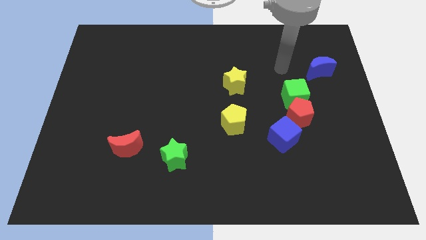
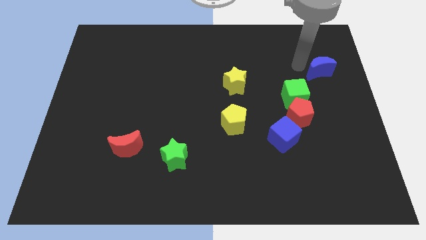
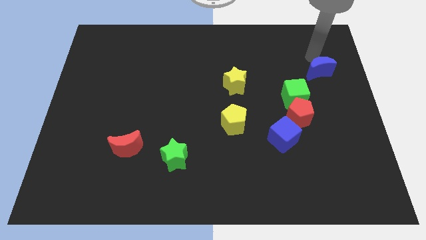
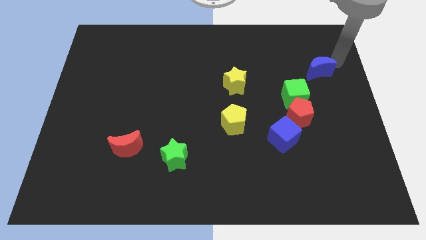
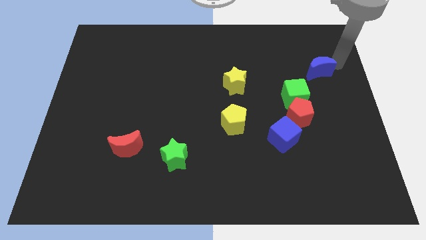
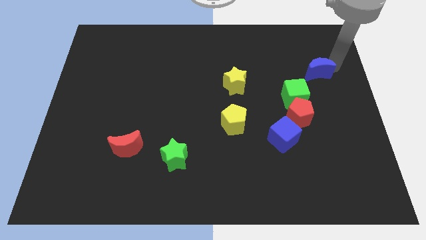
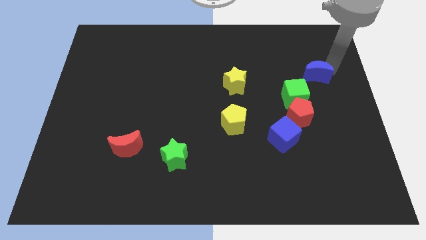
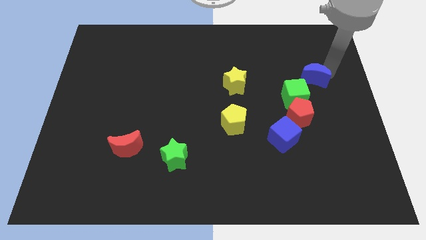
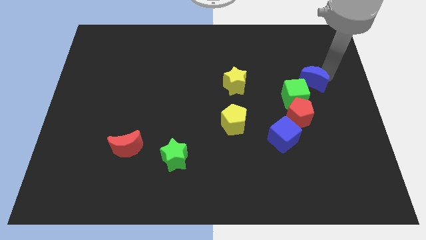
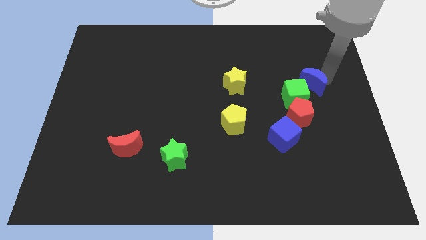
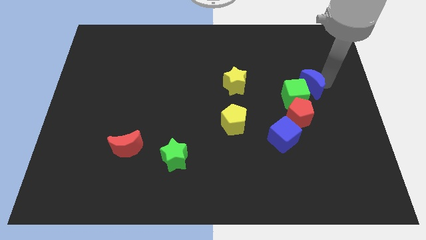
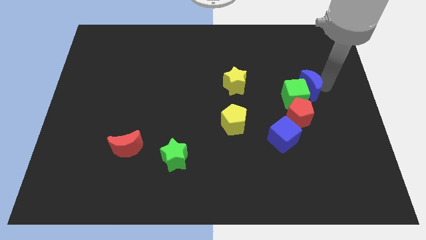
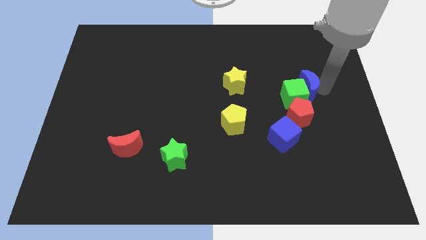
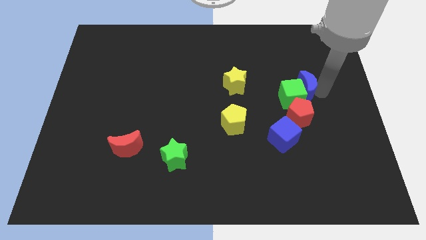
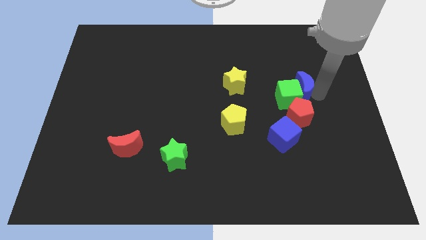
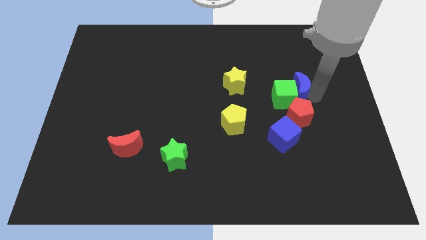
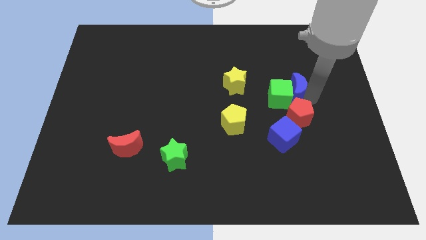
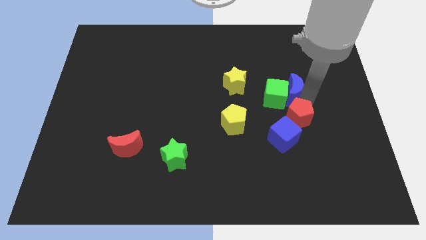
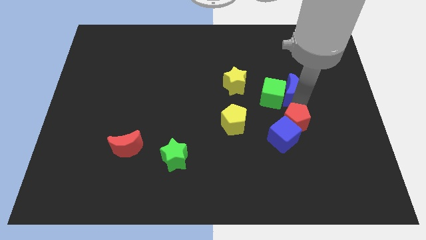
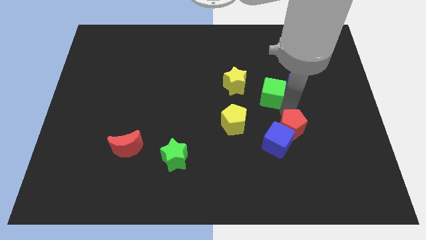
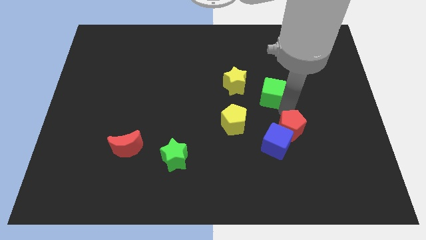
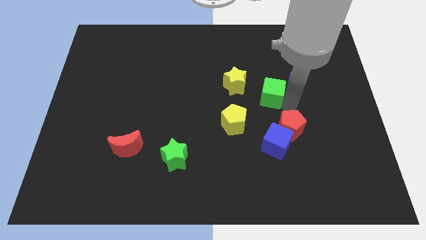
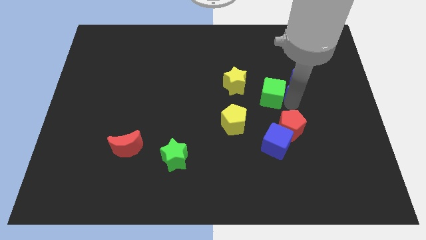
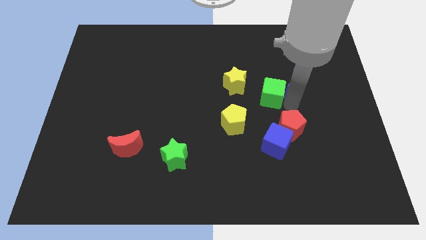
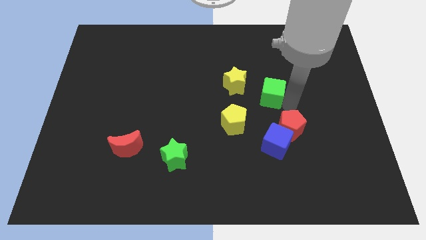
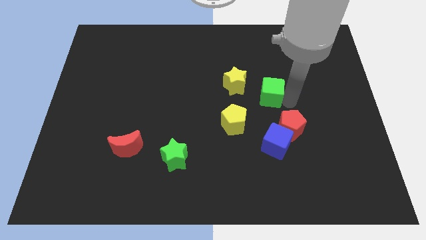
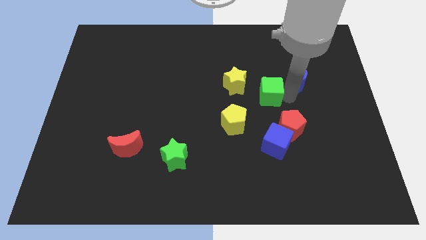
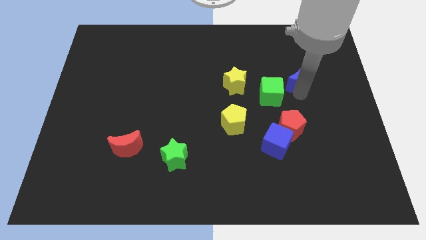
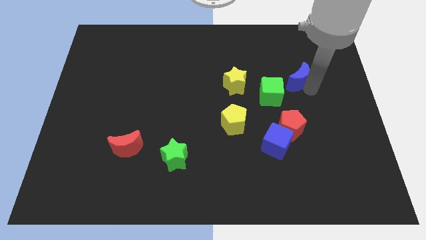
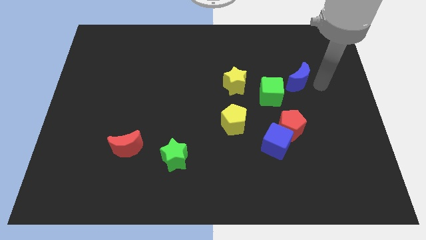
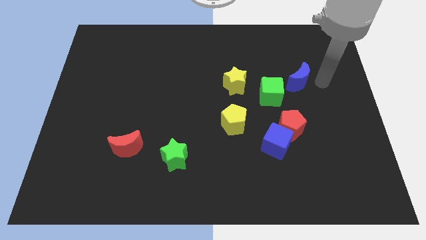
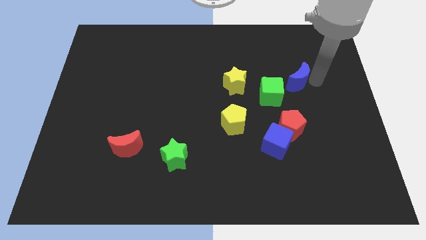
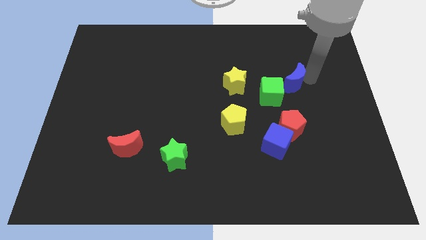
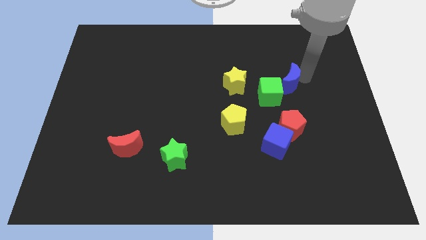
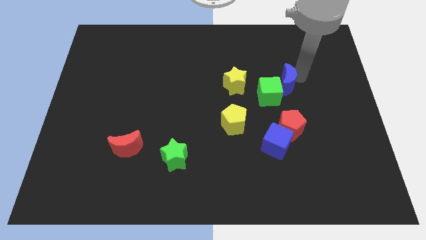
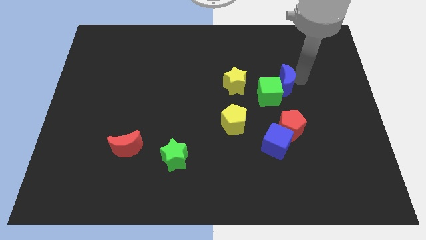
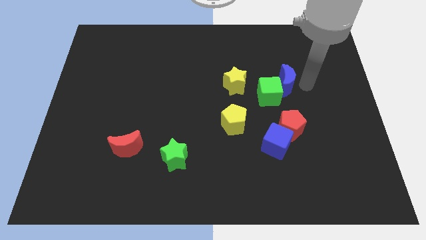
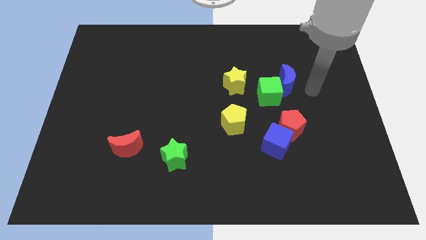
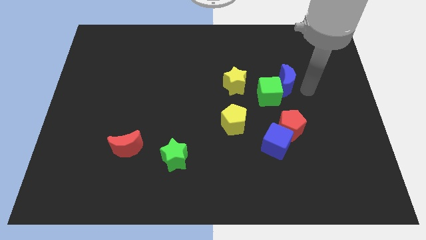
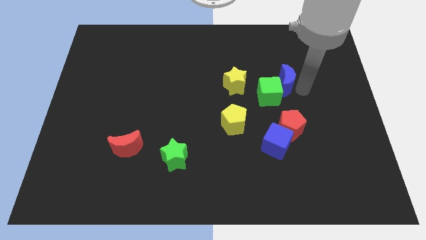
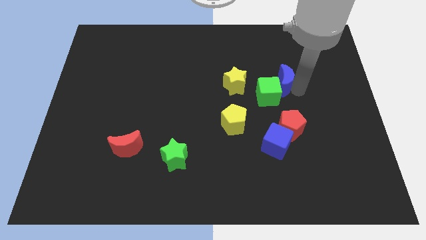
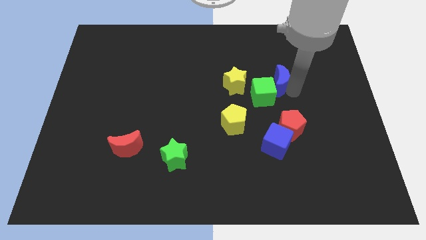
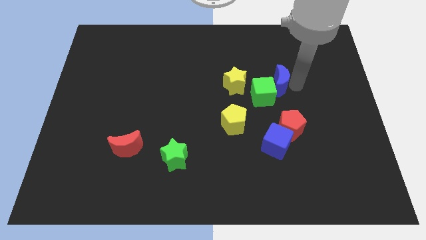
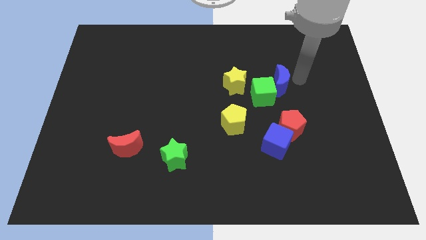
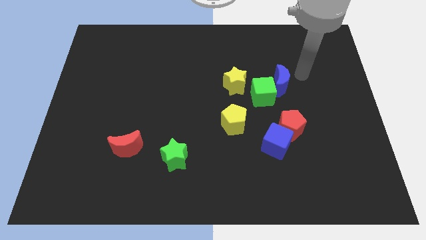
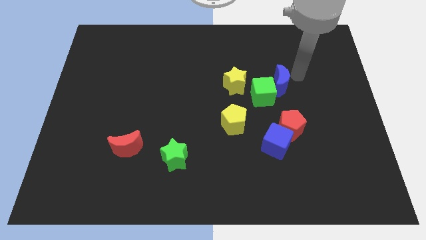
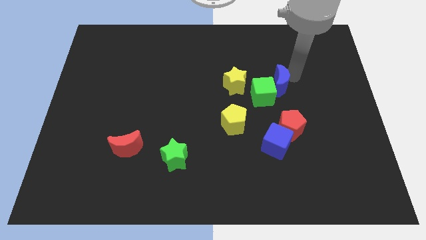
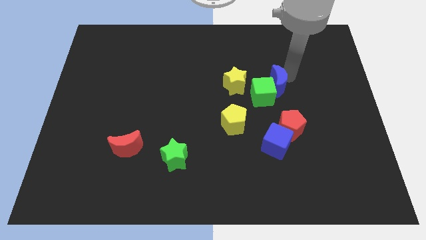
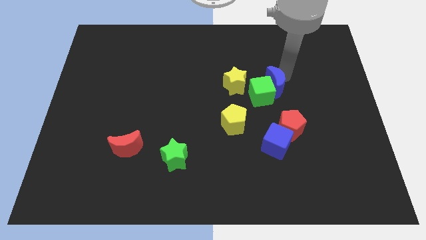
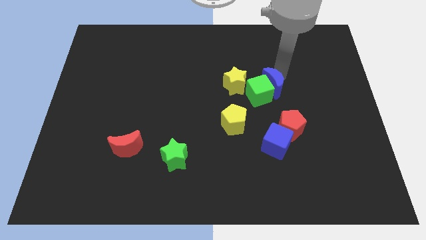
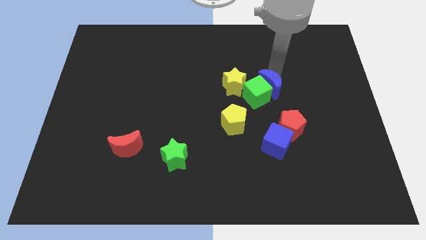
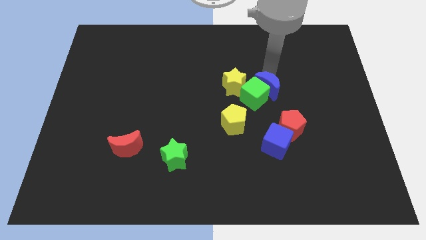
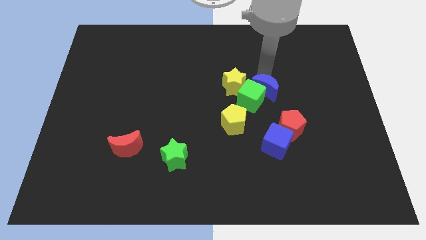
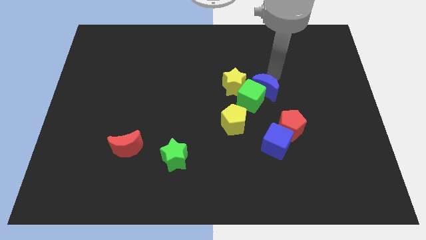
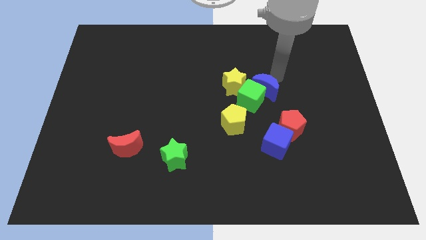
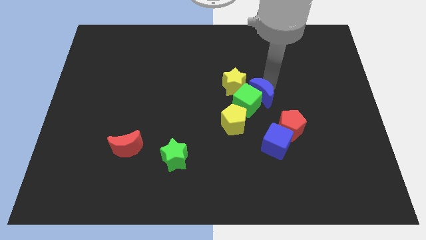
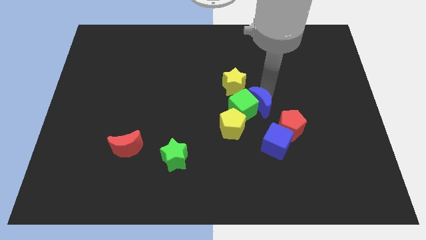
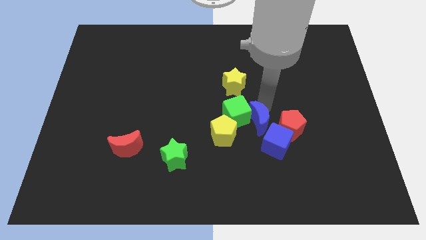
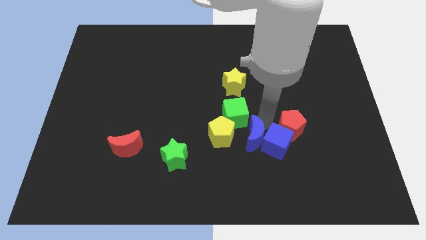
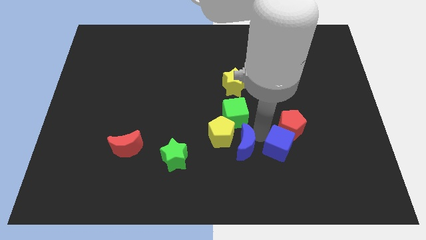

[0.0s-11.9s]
put the blue moon to the yellow pentagon

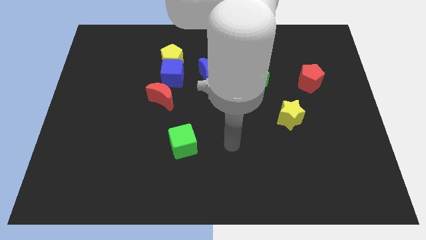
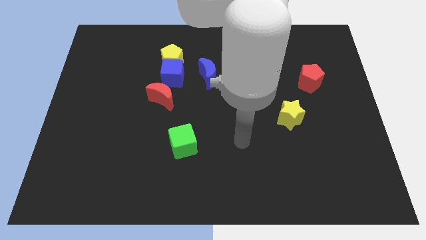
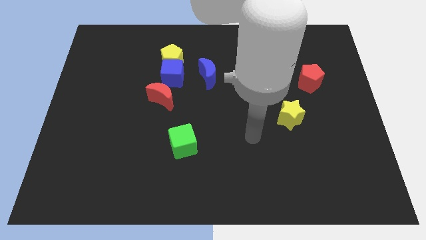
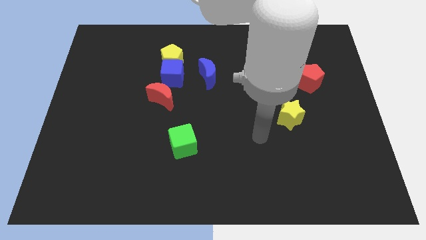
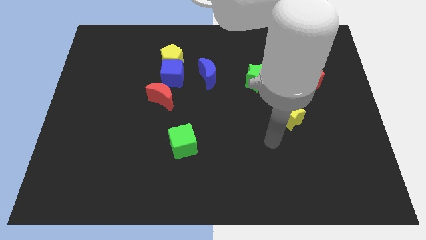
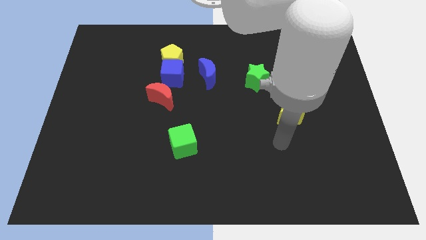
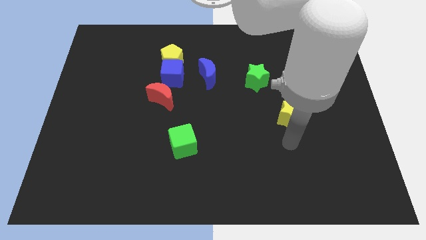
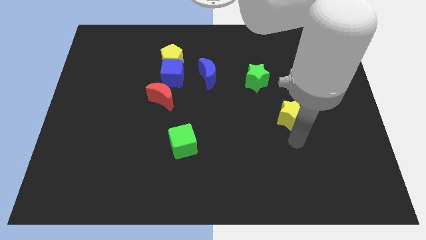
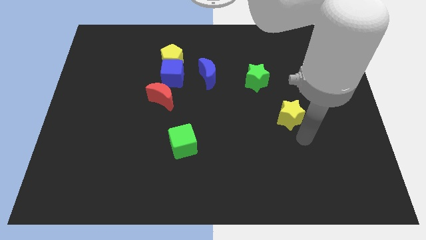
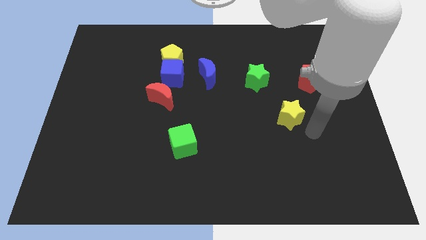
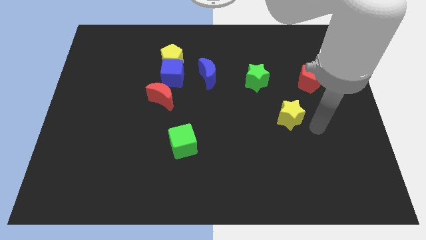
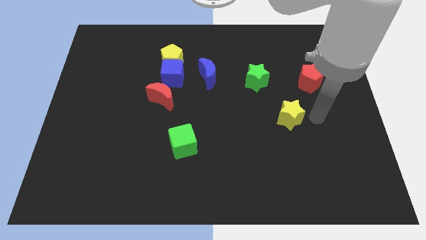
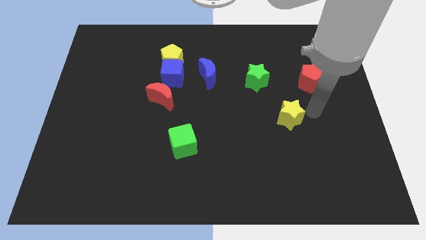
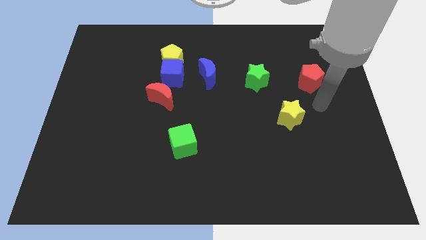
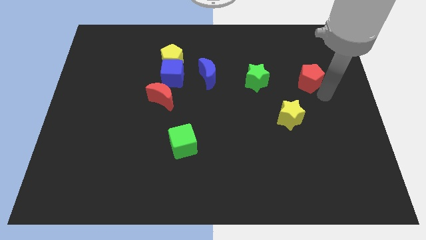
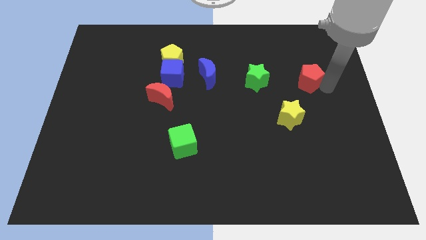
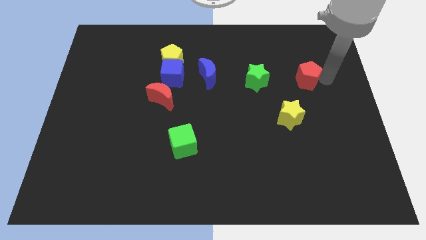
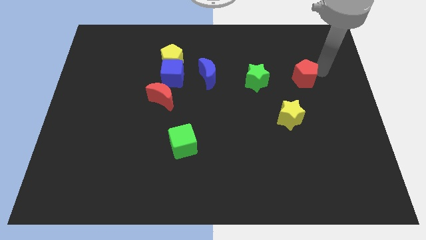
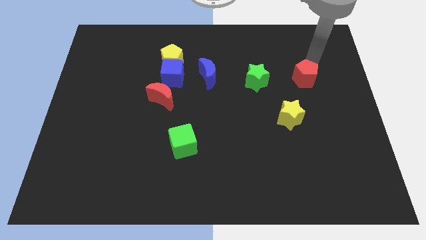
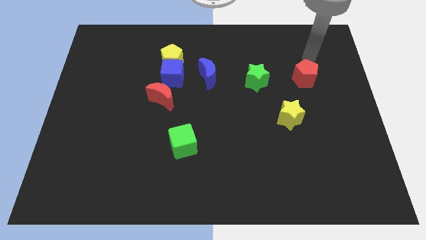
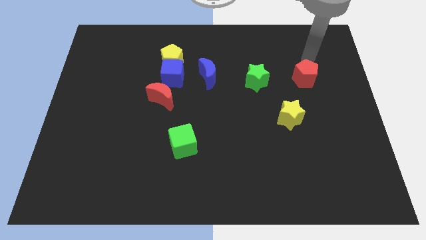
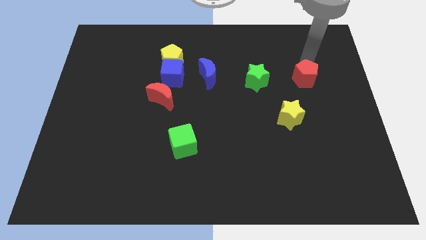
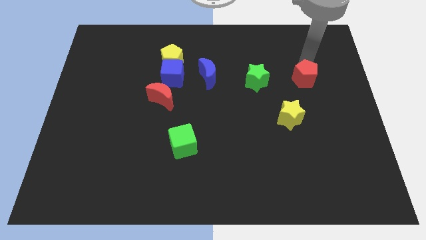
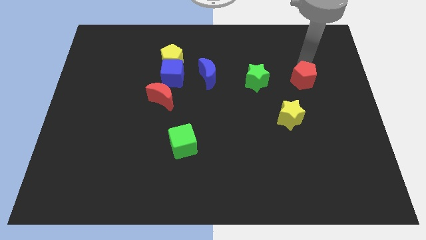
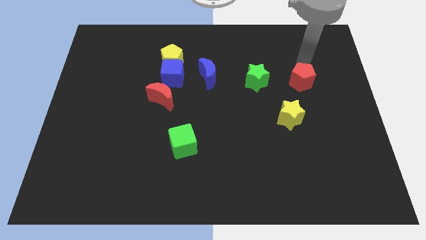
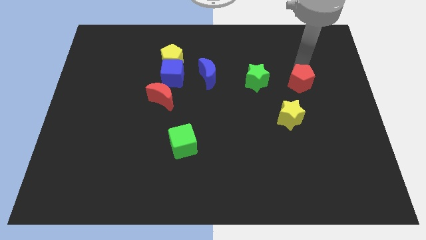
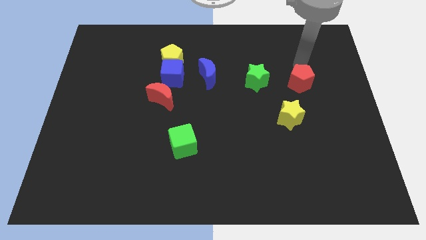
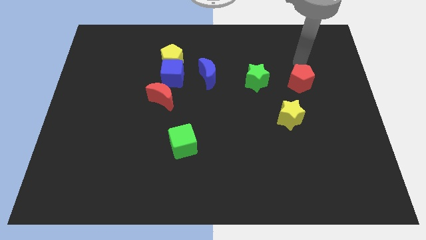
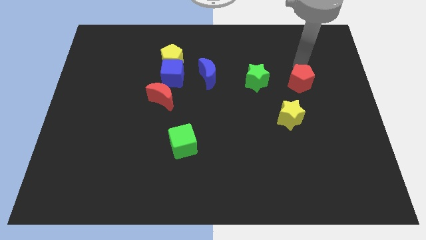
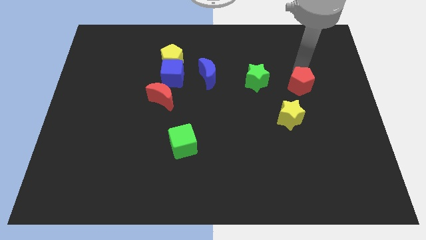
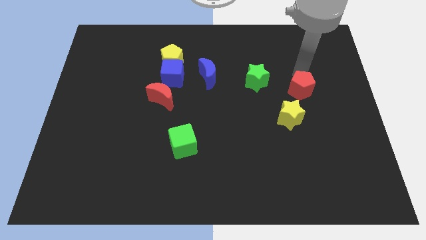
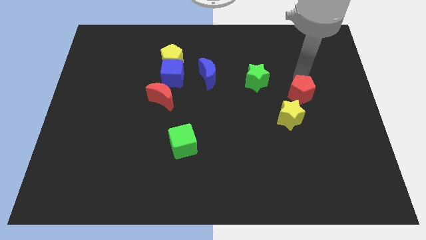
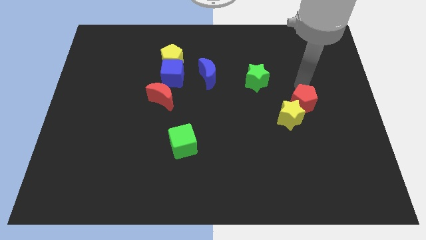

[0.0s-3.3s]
move the red pentagon to the yellow star
